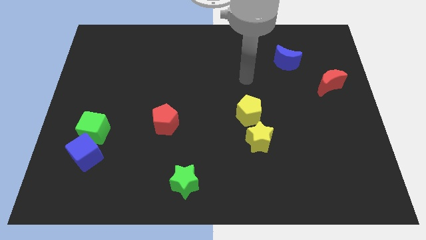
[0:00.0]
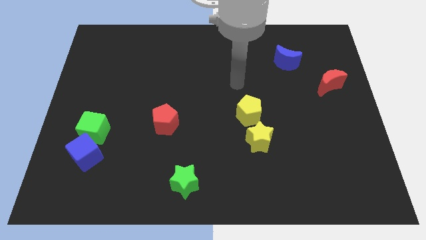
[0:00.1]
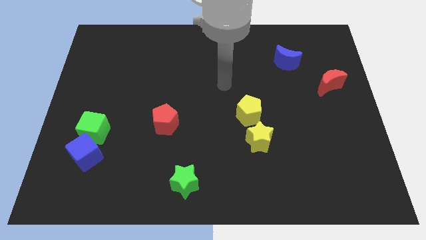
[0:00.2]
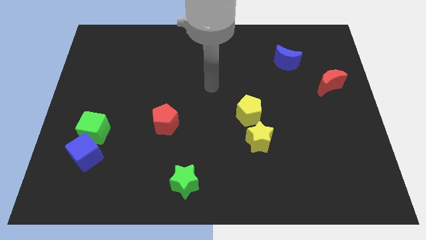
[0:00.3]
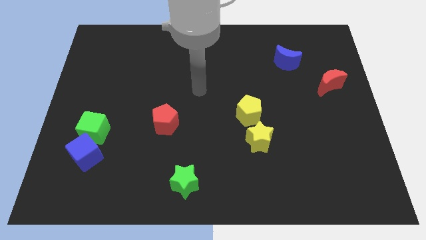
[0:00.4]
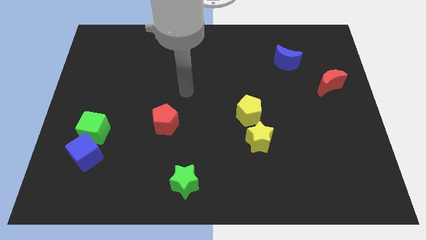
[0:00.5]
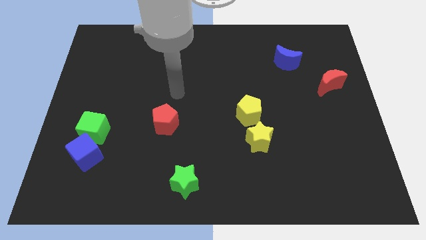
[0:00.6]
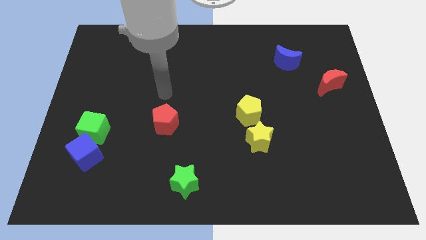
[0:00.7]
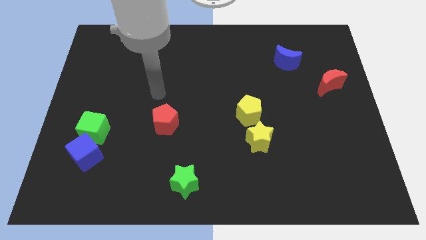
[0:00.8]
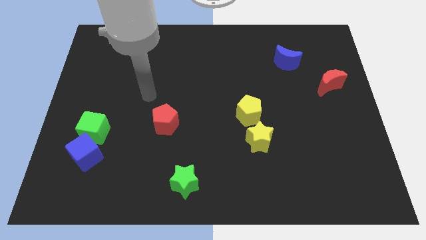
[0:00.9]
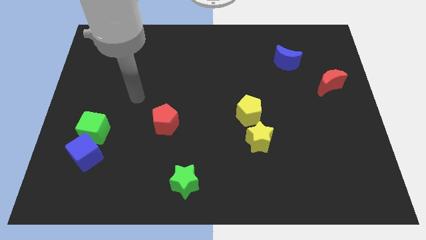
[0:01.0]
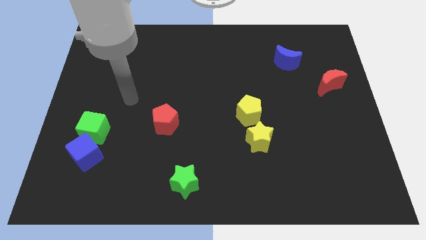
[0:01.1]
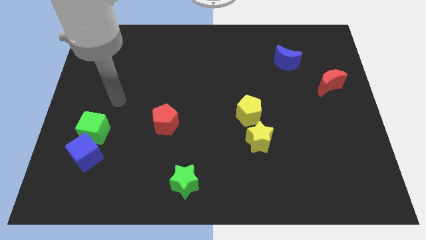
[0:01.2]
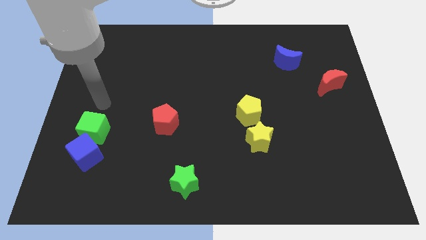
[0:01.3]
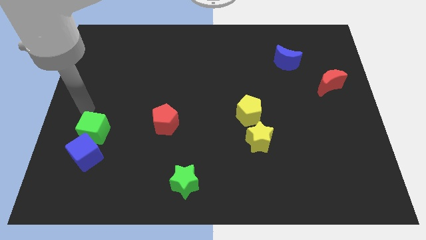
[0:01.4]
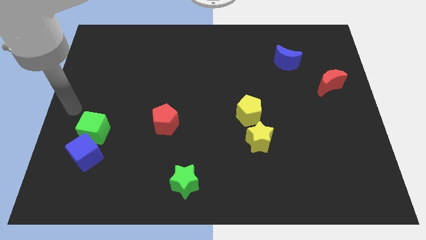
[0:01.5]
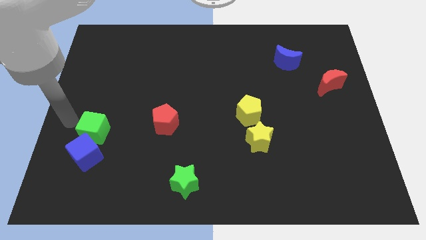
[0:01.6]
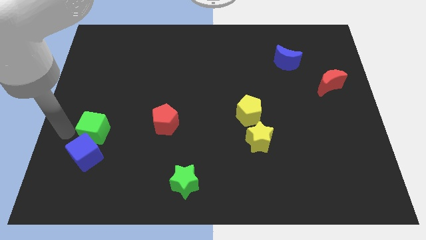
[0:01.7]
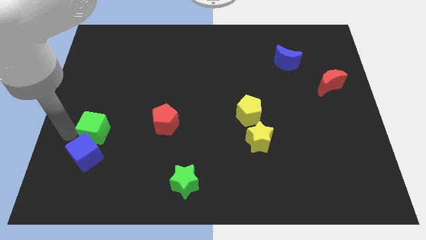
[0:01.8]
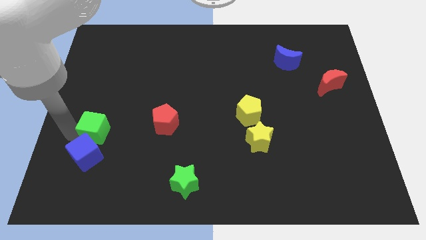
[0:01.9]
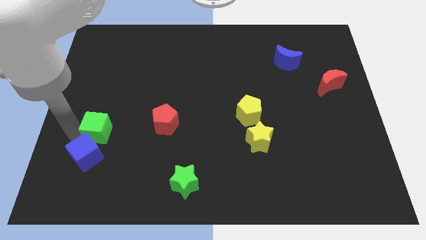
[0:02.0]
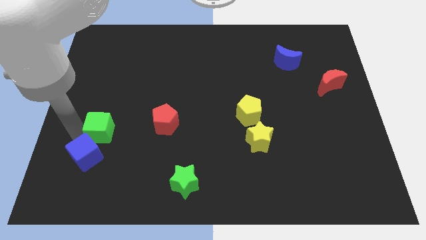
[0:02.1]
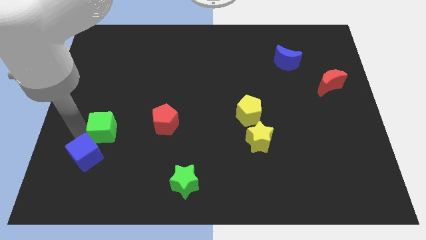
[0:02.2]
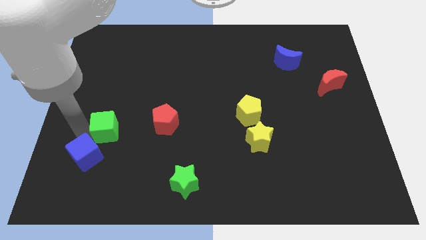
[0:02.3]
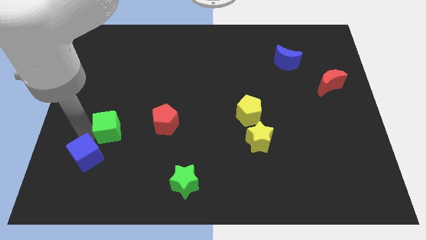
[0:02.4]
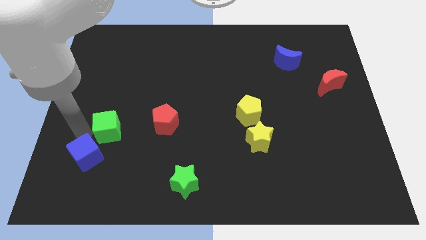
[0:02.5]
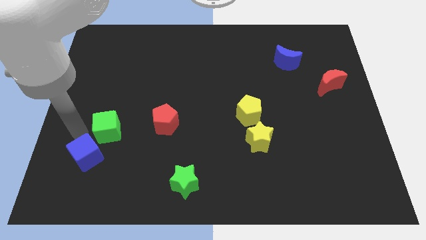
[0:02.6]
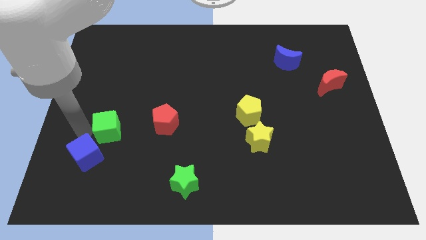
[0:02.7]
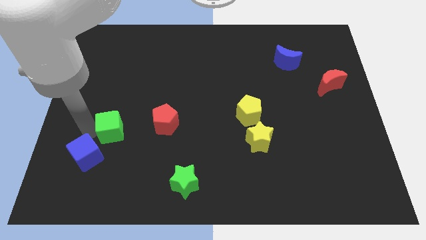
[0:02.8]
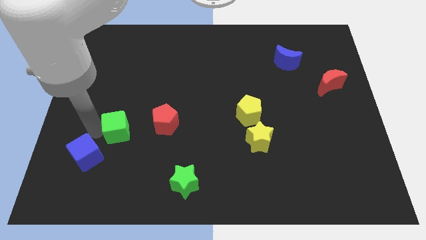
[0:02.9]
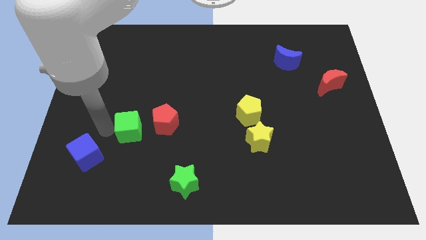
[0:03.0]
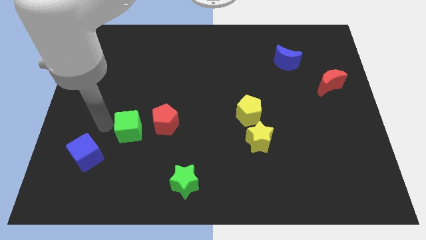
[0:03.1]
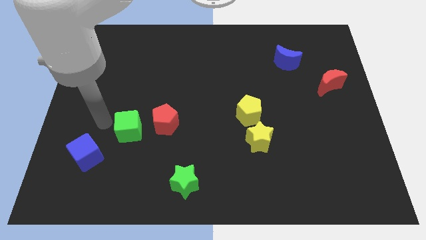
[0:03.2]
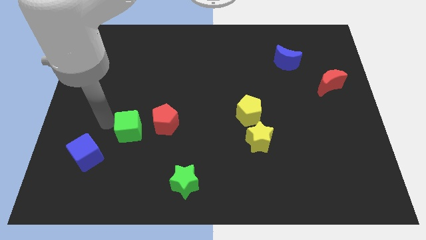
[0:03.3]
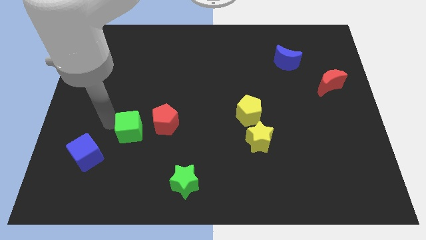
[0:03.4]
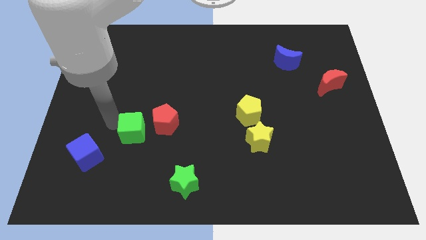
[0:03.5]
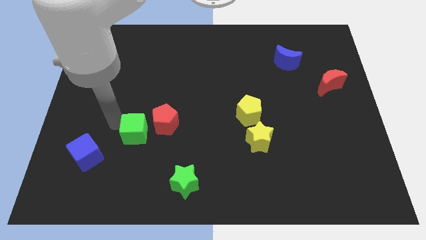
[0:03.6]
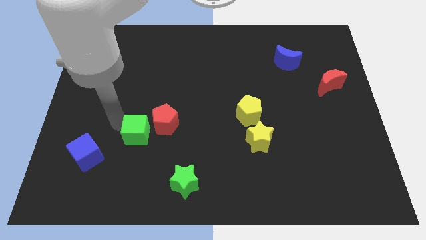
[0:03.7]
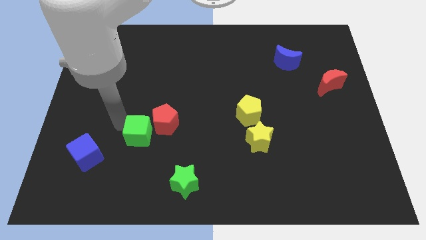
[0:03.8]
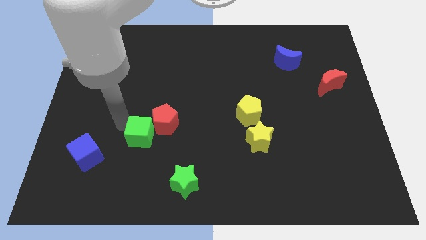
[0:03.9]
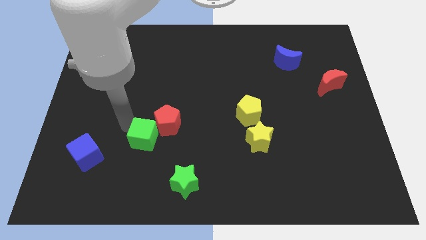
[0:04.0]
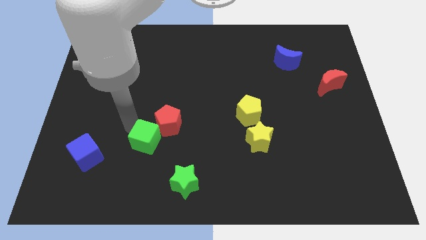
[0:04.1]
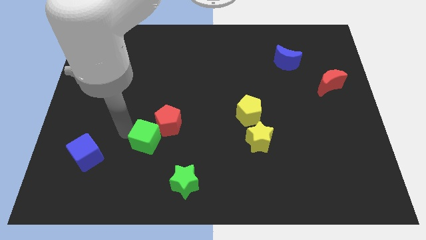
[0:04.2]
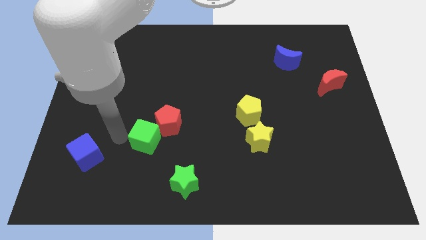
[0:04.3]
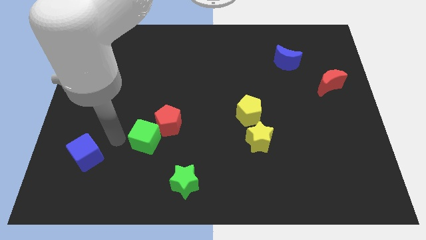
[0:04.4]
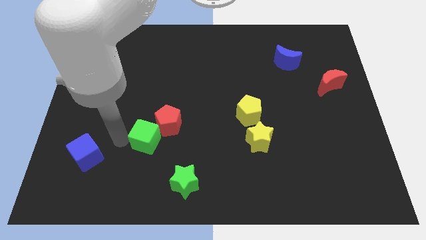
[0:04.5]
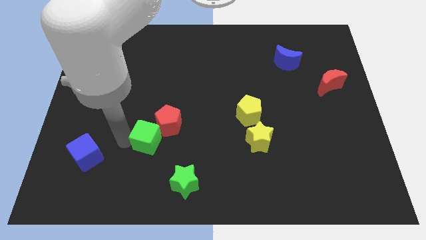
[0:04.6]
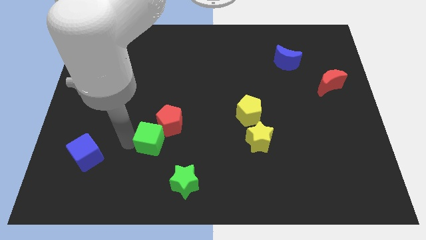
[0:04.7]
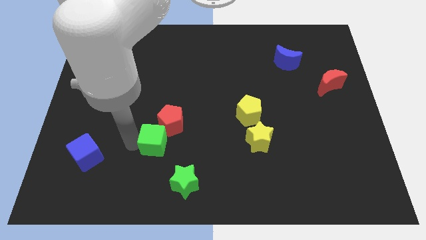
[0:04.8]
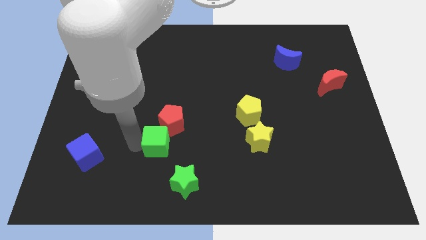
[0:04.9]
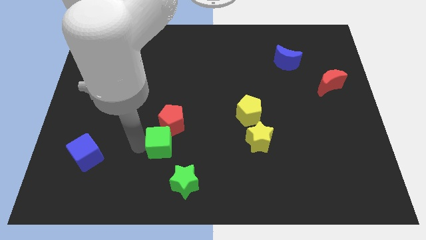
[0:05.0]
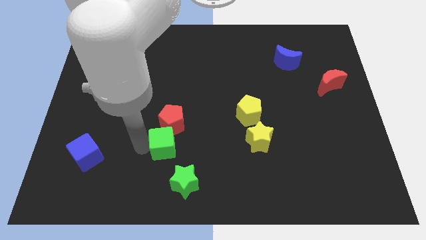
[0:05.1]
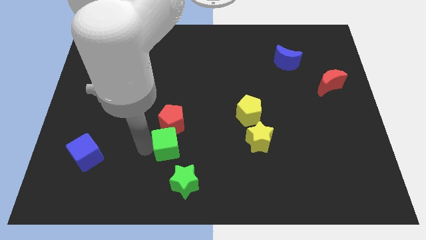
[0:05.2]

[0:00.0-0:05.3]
move the green cube above the green star

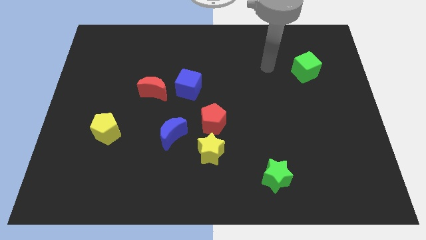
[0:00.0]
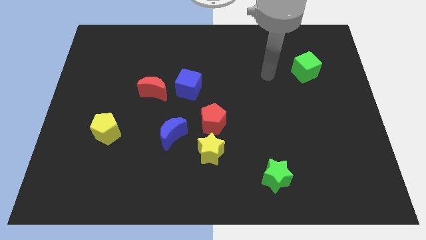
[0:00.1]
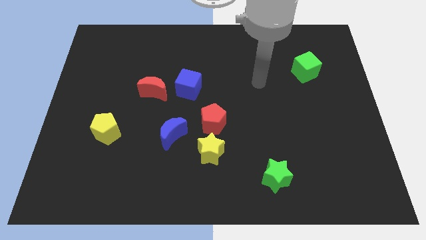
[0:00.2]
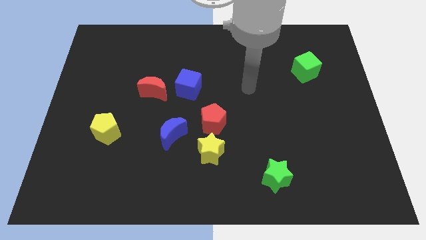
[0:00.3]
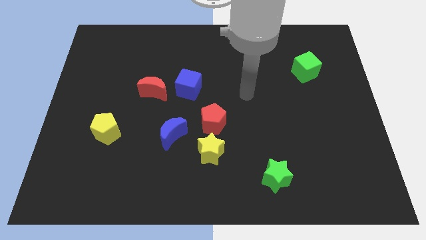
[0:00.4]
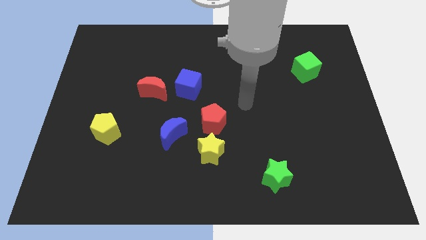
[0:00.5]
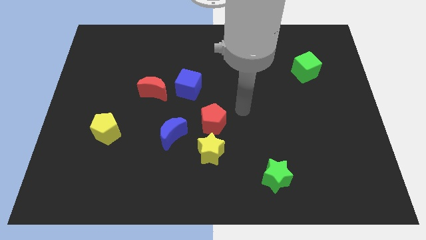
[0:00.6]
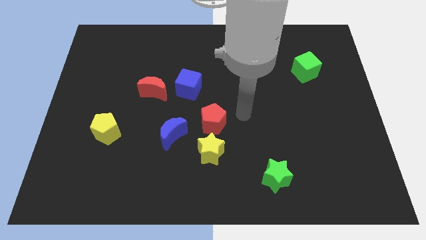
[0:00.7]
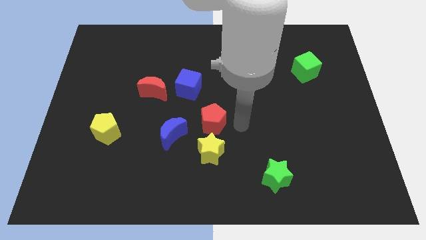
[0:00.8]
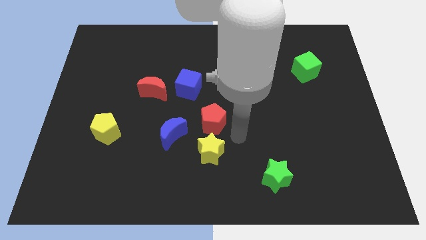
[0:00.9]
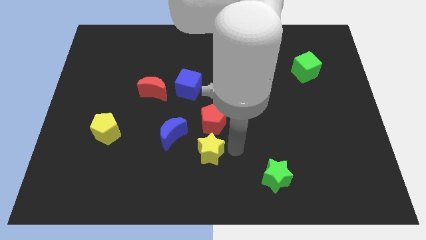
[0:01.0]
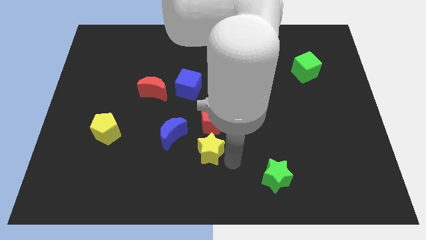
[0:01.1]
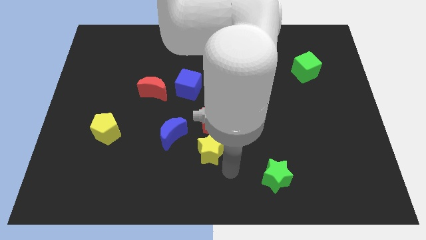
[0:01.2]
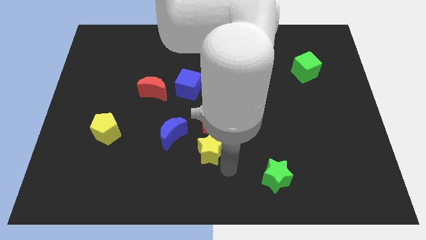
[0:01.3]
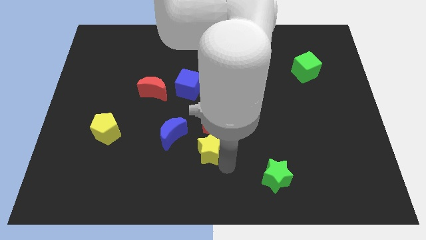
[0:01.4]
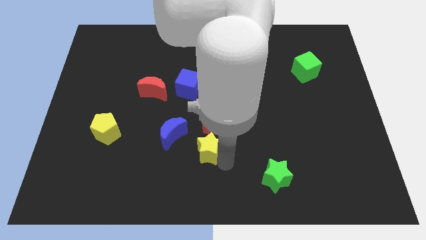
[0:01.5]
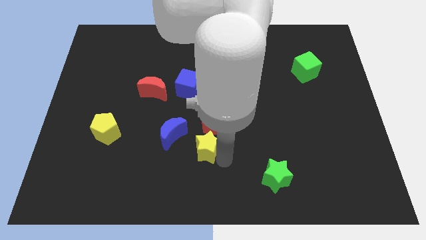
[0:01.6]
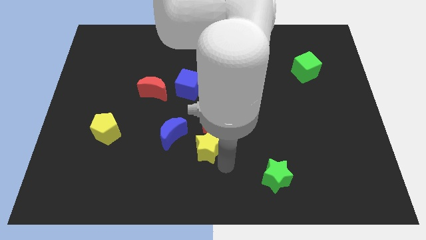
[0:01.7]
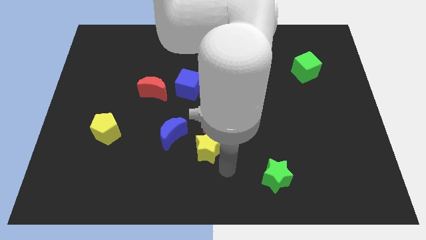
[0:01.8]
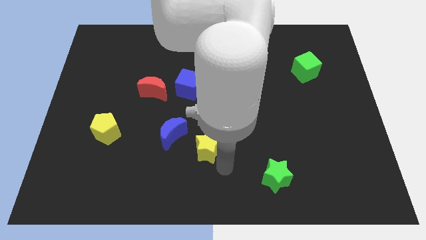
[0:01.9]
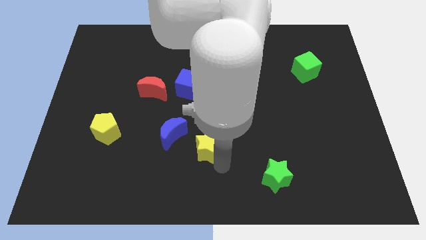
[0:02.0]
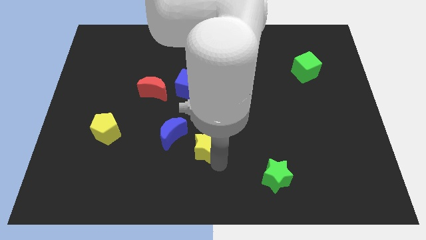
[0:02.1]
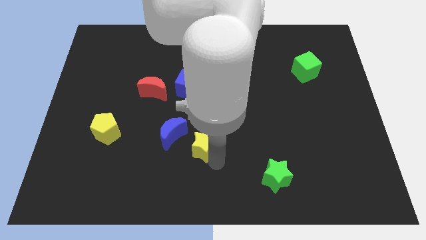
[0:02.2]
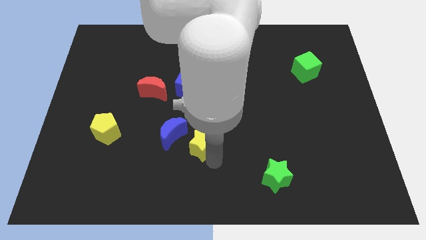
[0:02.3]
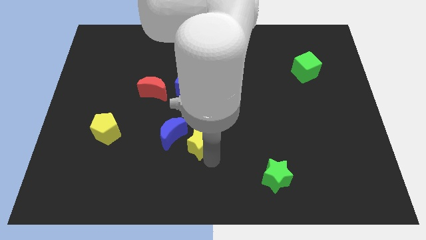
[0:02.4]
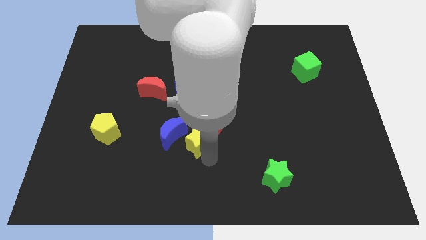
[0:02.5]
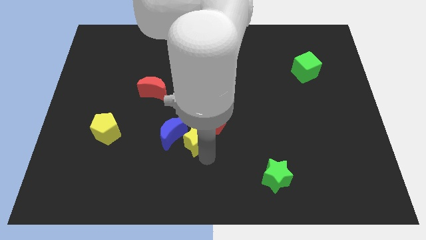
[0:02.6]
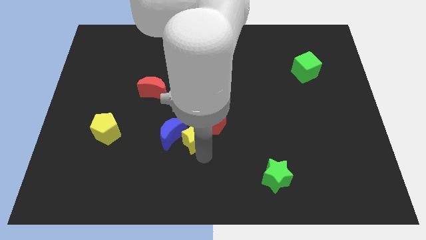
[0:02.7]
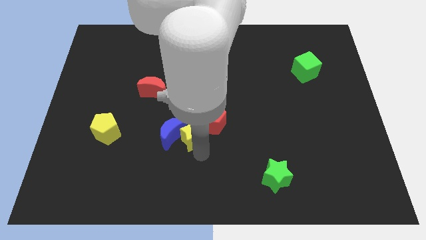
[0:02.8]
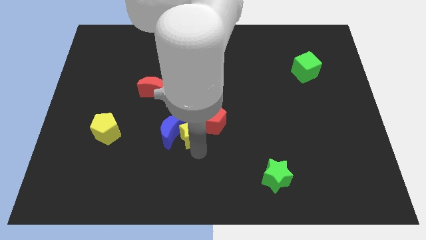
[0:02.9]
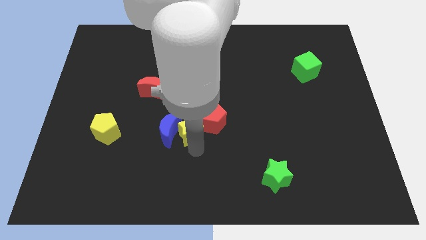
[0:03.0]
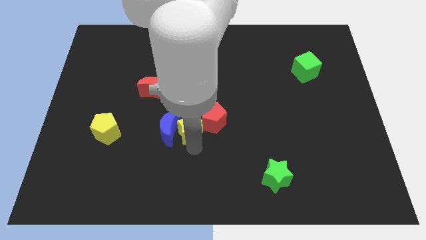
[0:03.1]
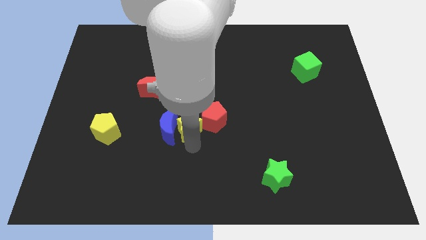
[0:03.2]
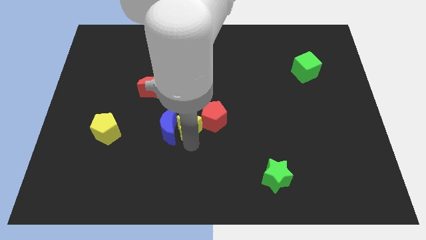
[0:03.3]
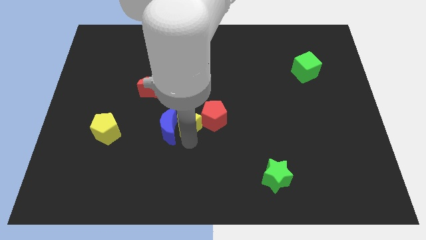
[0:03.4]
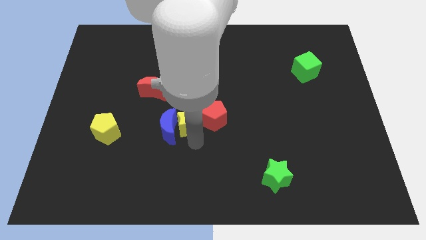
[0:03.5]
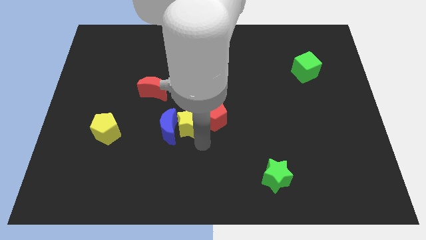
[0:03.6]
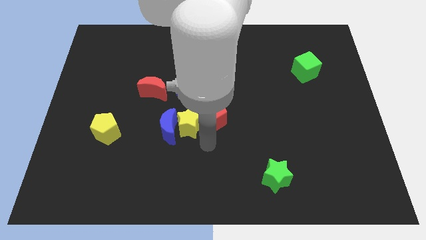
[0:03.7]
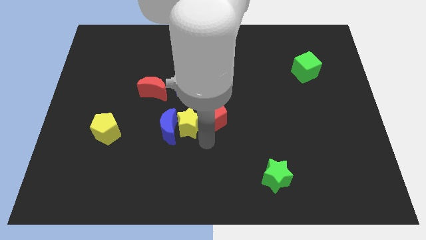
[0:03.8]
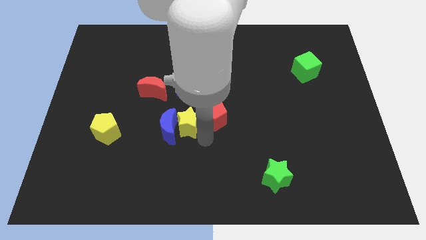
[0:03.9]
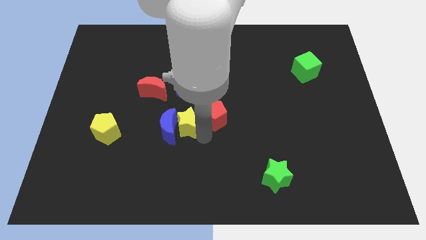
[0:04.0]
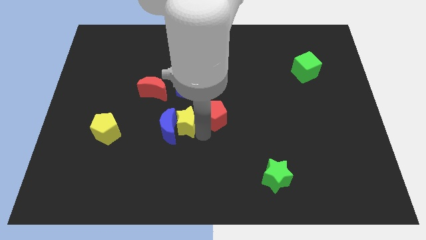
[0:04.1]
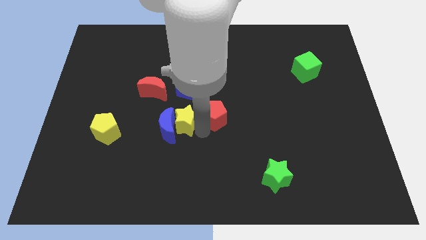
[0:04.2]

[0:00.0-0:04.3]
slide the yellow star to the bottom right of the red moon
